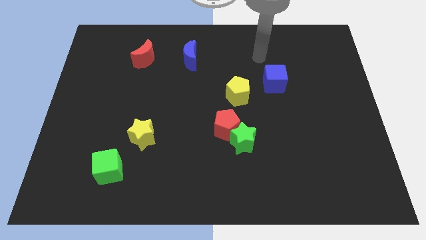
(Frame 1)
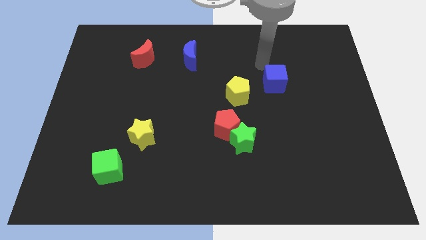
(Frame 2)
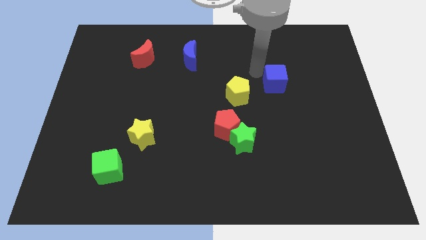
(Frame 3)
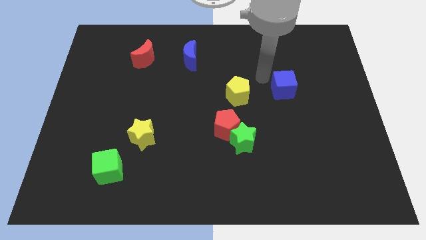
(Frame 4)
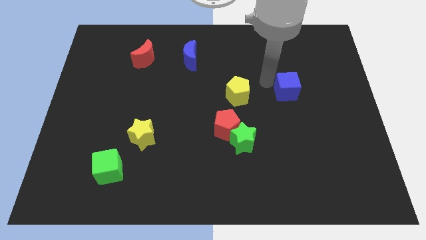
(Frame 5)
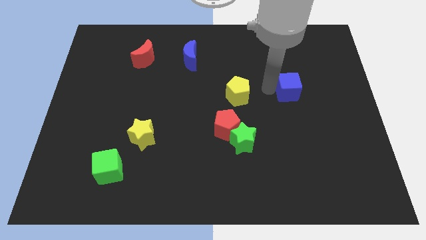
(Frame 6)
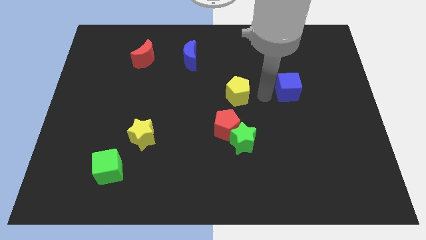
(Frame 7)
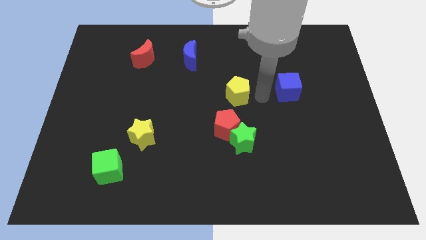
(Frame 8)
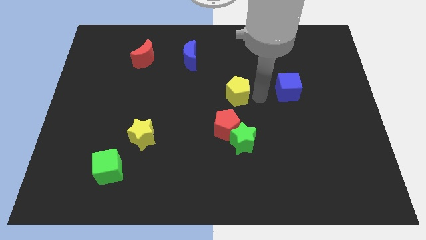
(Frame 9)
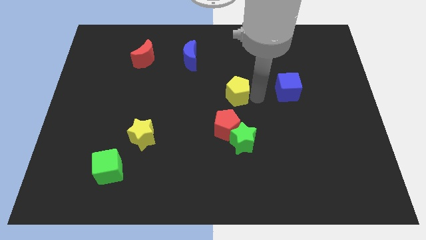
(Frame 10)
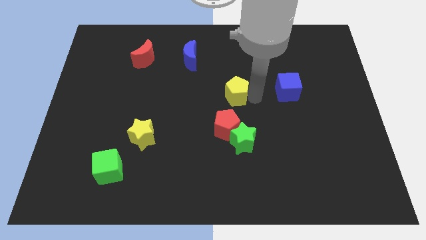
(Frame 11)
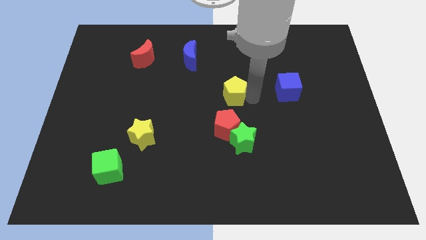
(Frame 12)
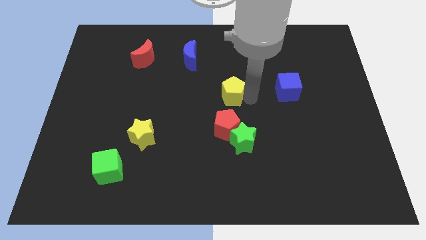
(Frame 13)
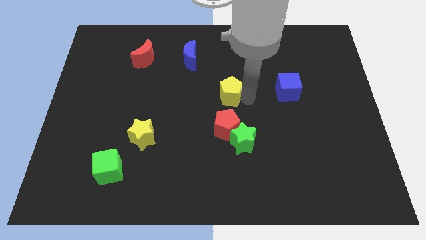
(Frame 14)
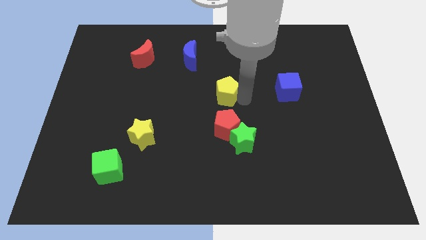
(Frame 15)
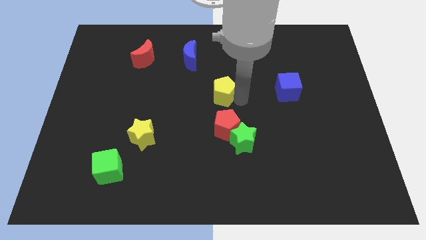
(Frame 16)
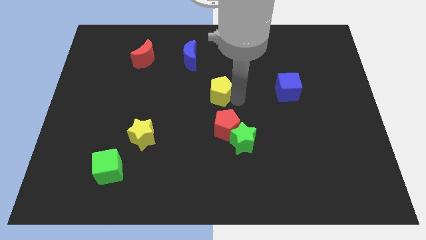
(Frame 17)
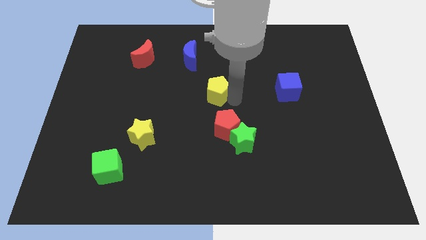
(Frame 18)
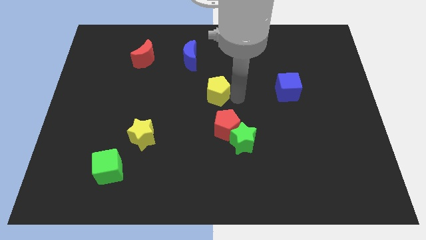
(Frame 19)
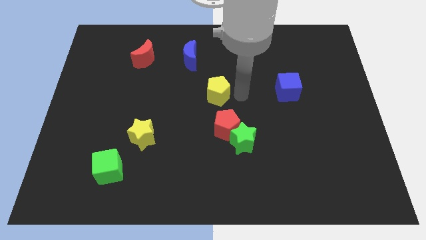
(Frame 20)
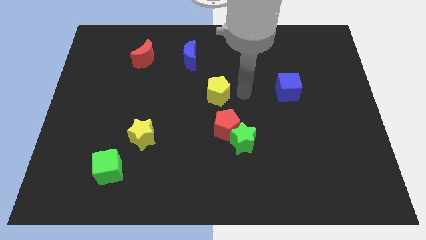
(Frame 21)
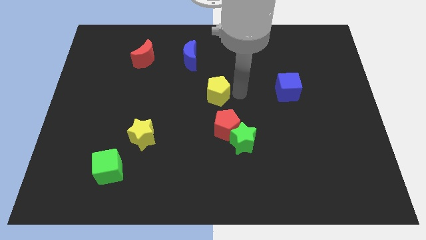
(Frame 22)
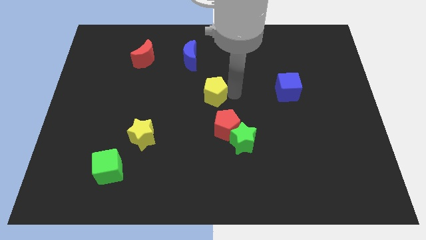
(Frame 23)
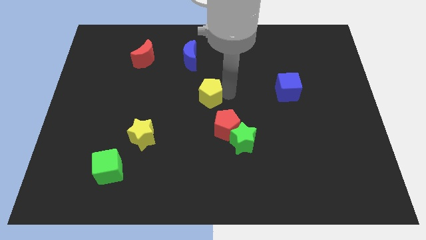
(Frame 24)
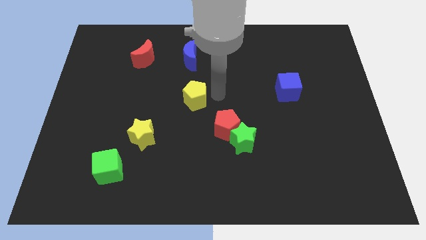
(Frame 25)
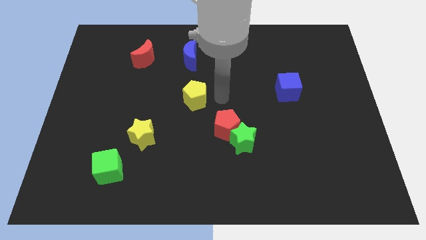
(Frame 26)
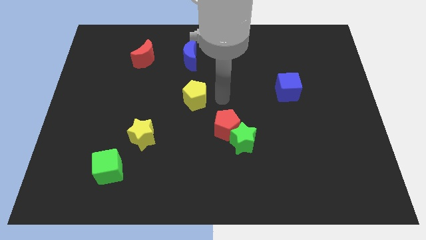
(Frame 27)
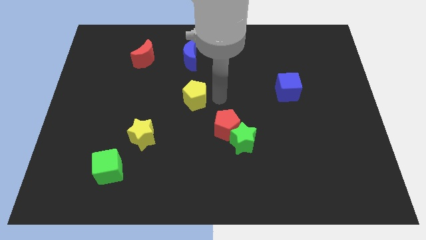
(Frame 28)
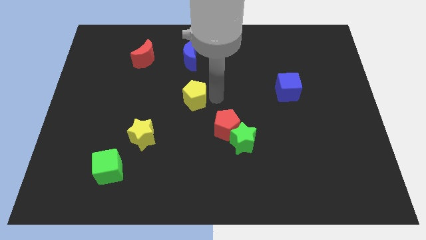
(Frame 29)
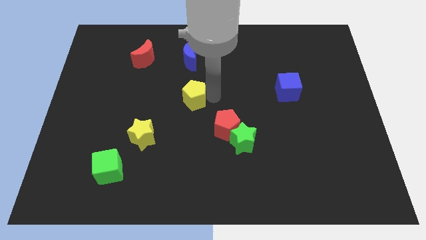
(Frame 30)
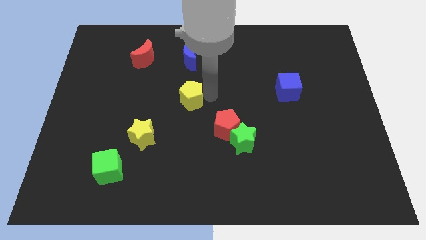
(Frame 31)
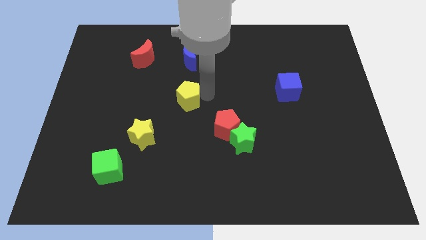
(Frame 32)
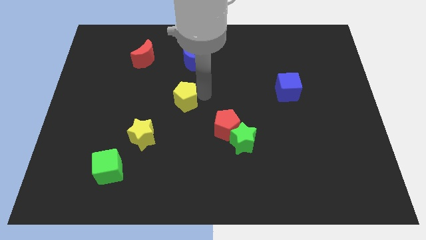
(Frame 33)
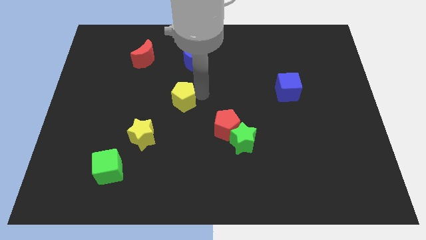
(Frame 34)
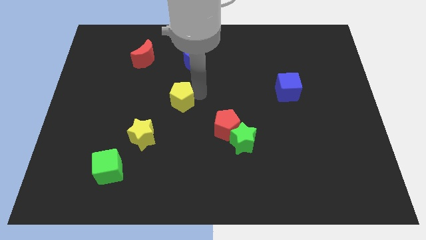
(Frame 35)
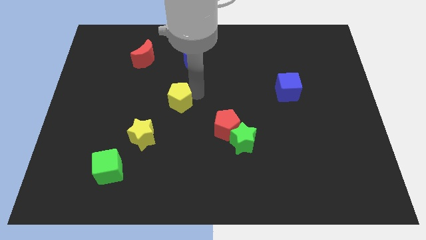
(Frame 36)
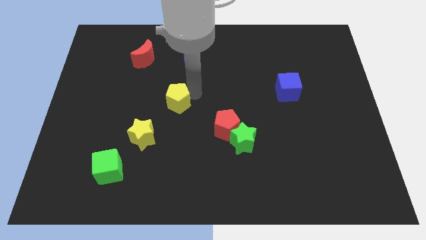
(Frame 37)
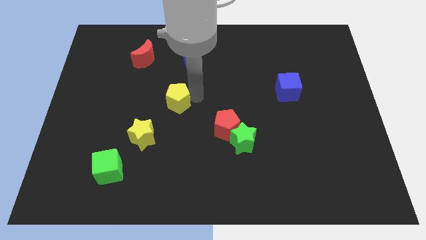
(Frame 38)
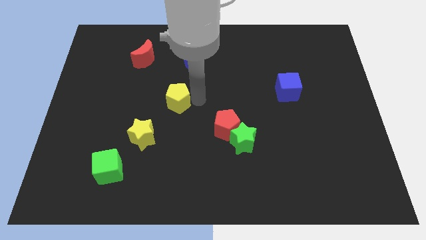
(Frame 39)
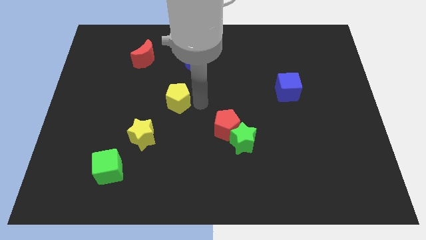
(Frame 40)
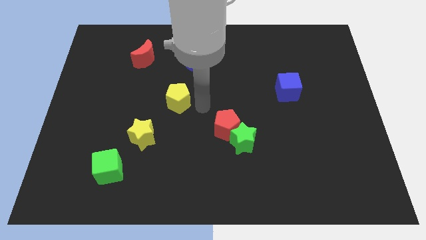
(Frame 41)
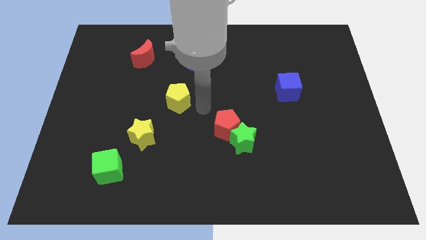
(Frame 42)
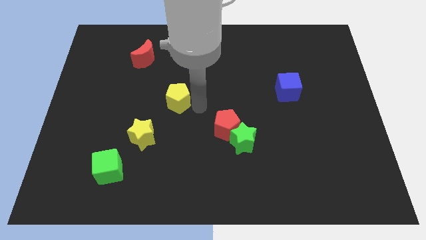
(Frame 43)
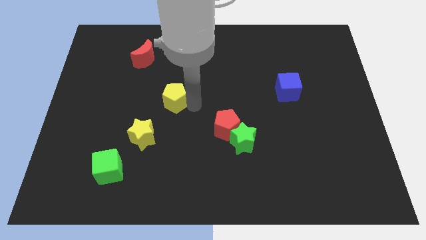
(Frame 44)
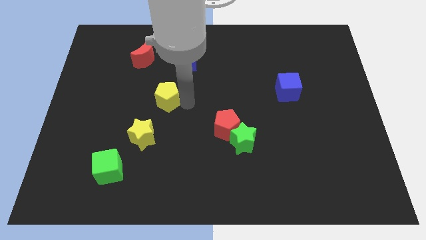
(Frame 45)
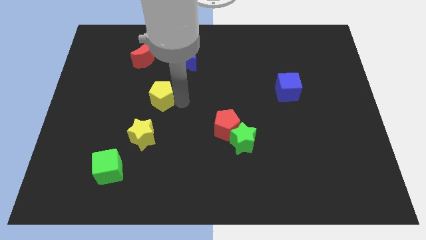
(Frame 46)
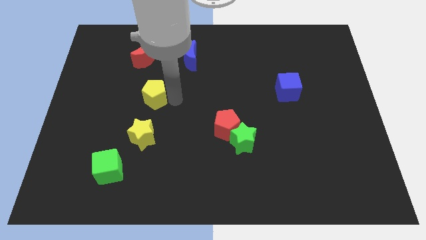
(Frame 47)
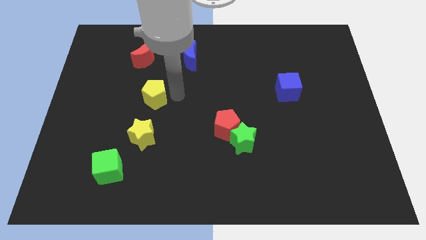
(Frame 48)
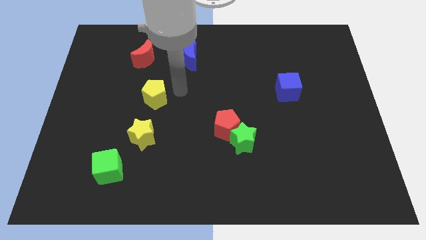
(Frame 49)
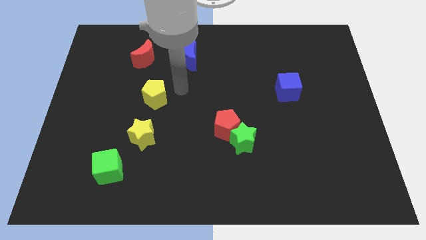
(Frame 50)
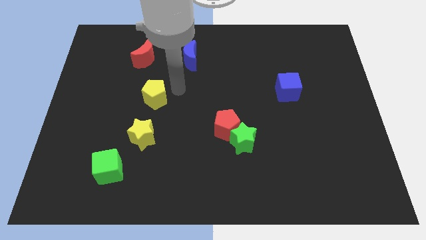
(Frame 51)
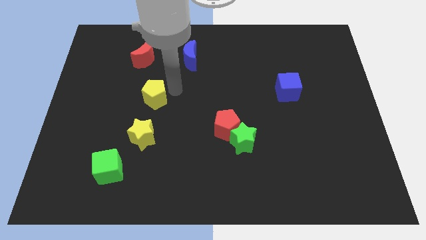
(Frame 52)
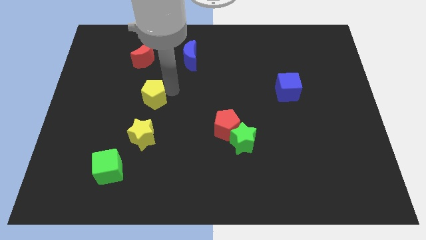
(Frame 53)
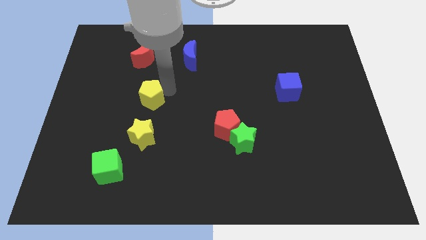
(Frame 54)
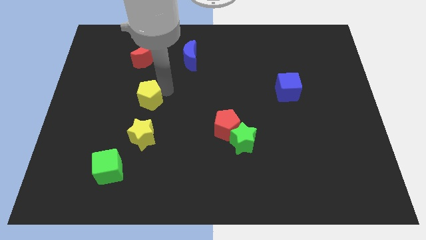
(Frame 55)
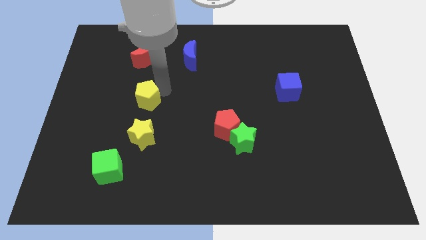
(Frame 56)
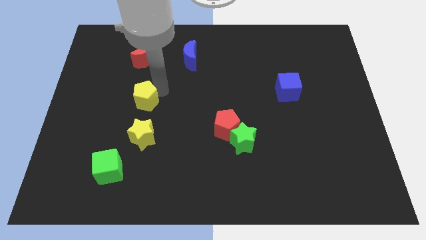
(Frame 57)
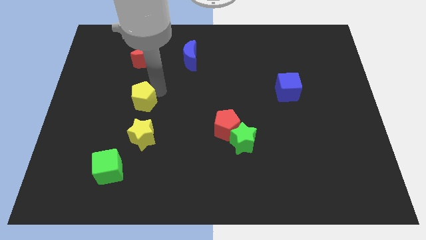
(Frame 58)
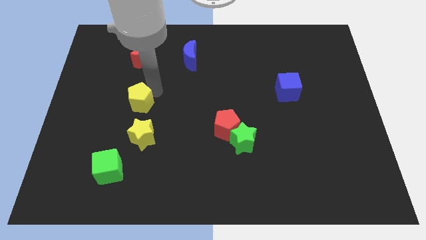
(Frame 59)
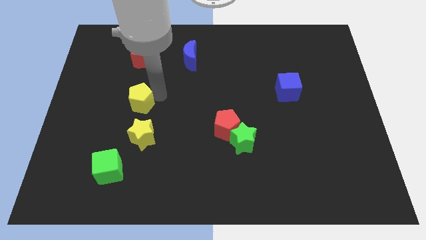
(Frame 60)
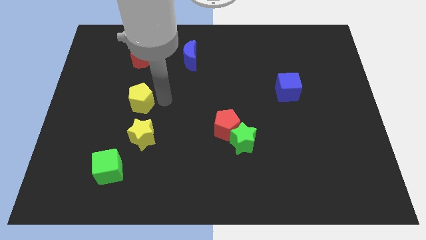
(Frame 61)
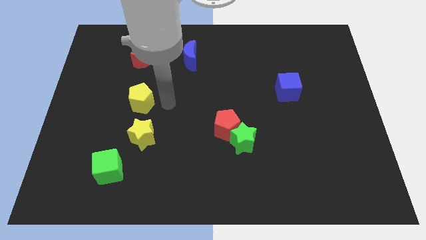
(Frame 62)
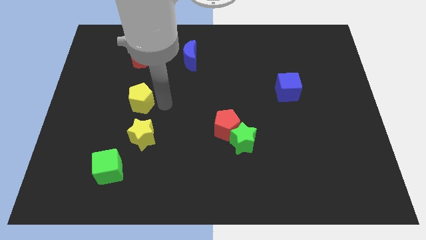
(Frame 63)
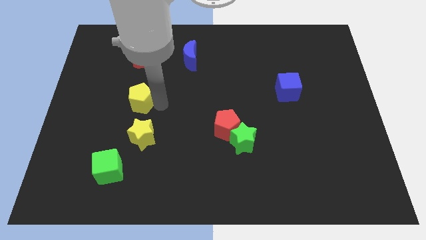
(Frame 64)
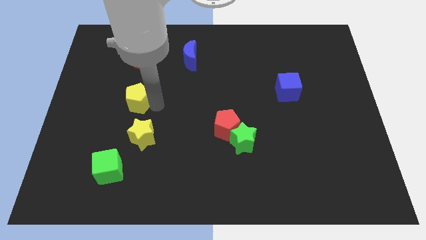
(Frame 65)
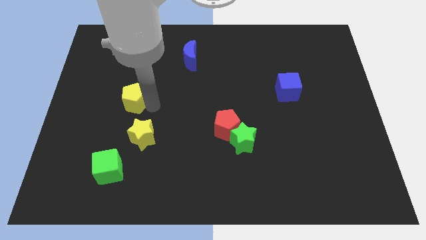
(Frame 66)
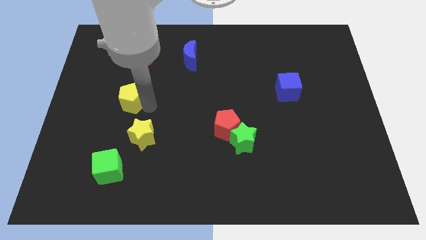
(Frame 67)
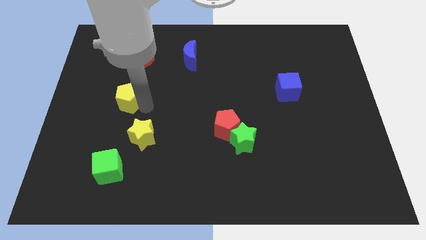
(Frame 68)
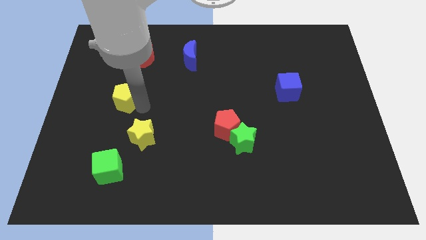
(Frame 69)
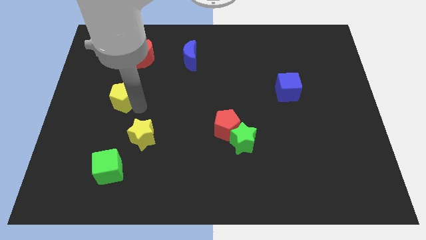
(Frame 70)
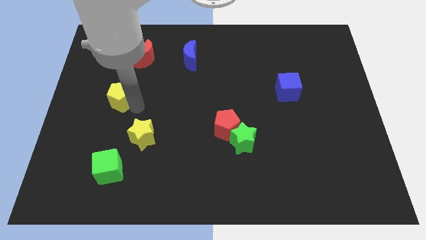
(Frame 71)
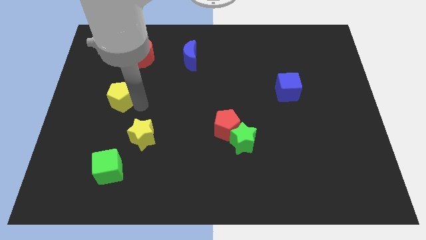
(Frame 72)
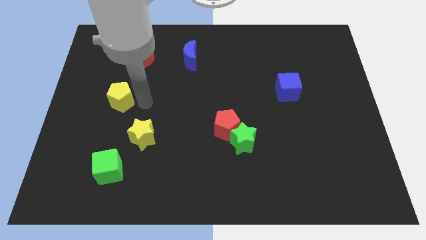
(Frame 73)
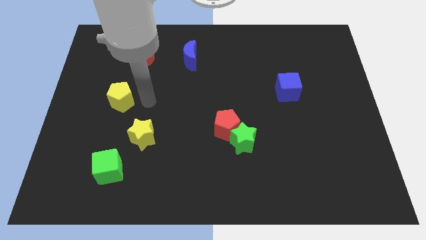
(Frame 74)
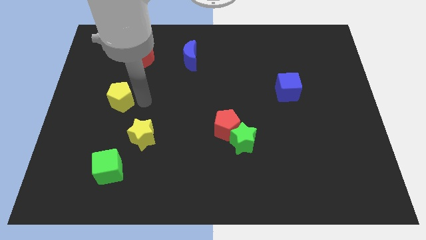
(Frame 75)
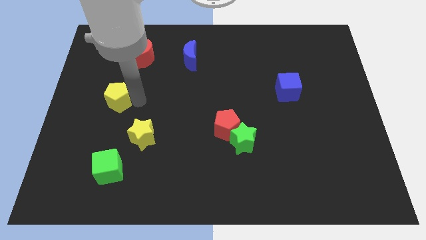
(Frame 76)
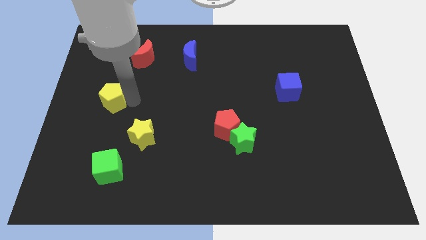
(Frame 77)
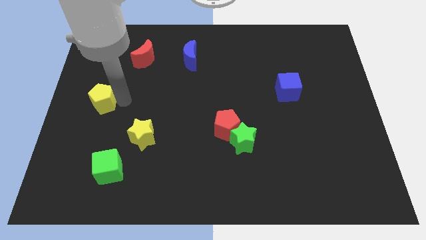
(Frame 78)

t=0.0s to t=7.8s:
move the yellow pentagon to the left side of the board
